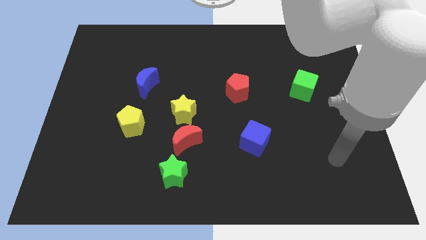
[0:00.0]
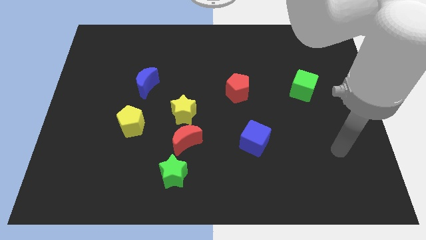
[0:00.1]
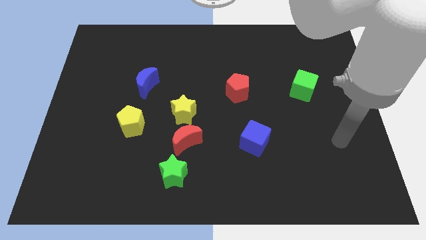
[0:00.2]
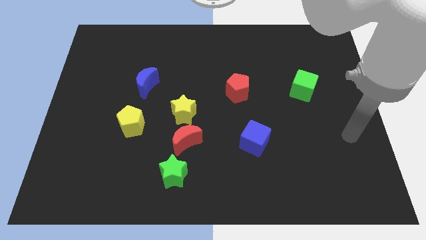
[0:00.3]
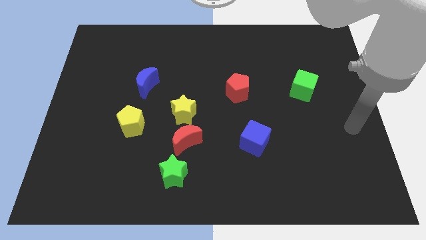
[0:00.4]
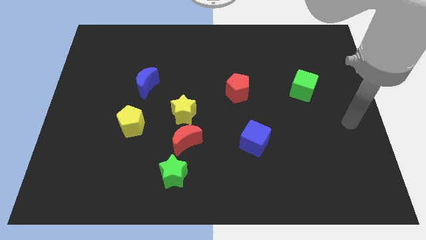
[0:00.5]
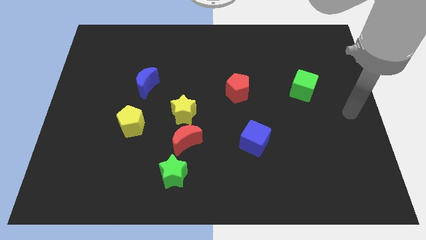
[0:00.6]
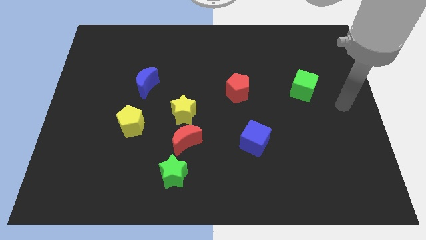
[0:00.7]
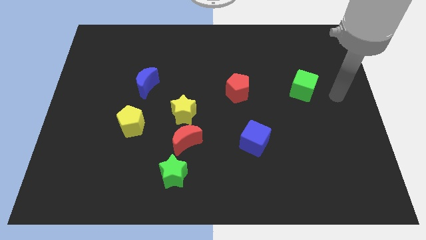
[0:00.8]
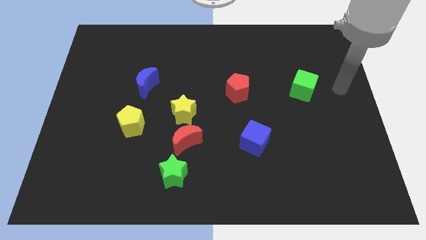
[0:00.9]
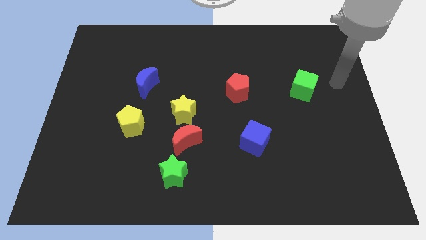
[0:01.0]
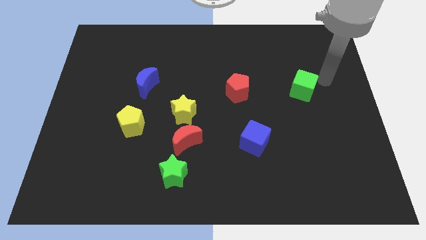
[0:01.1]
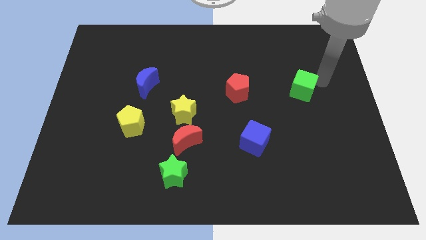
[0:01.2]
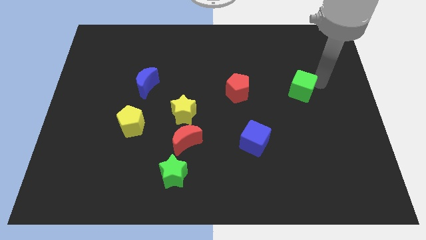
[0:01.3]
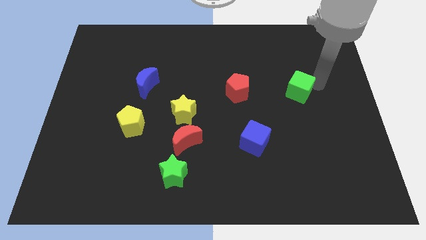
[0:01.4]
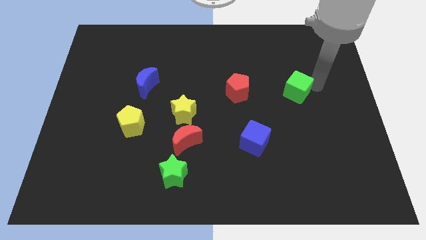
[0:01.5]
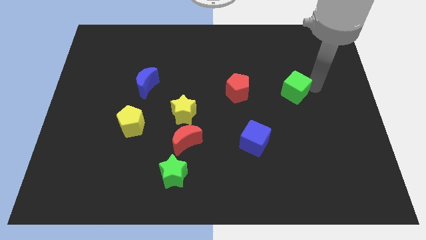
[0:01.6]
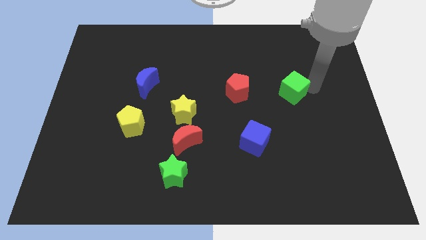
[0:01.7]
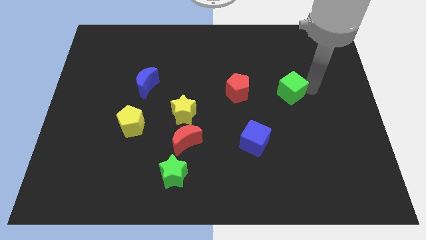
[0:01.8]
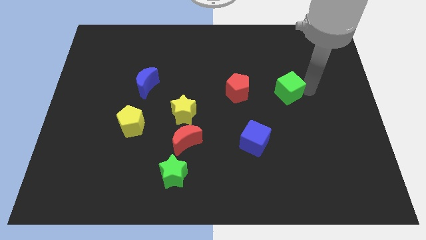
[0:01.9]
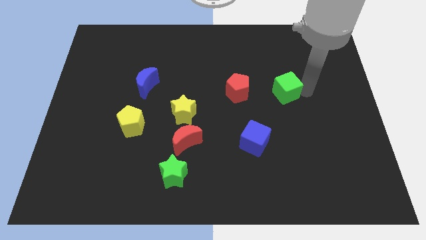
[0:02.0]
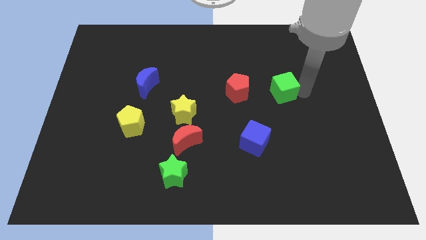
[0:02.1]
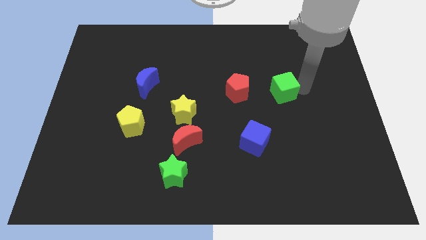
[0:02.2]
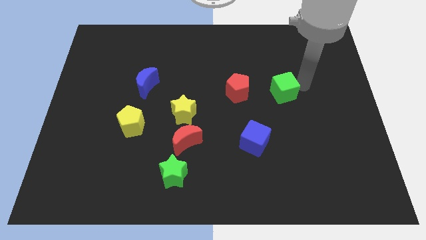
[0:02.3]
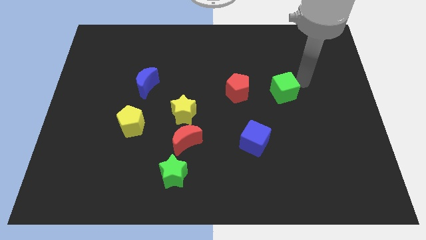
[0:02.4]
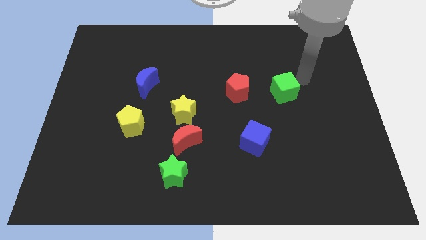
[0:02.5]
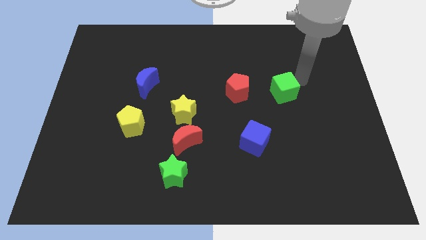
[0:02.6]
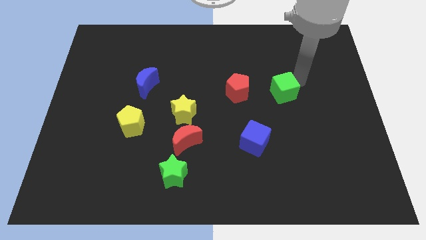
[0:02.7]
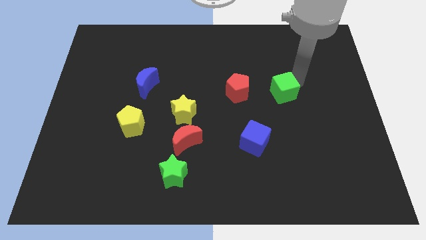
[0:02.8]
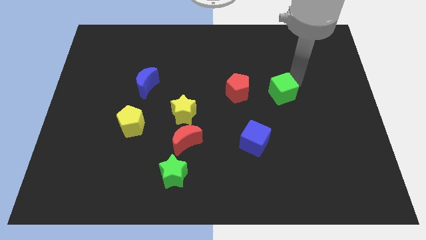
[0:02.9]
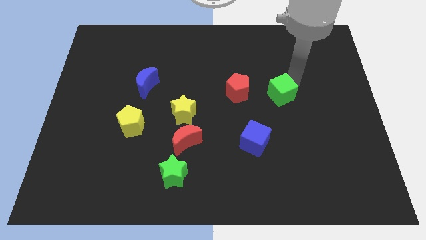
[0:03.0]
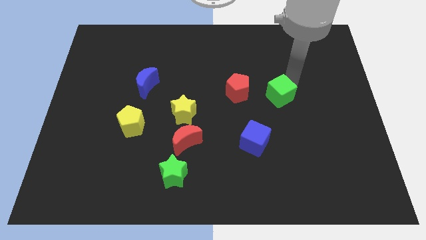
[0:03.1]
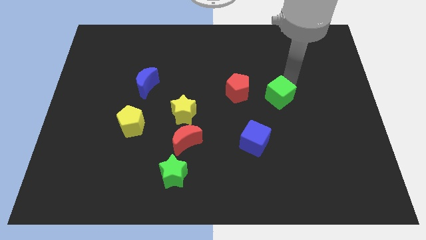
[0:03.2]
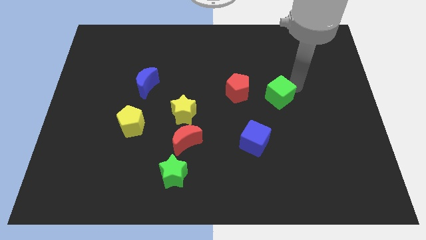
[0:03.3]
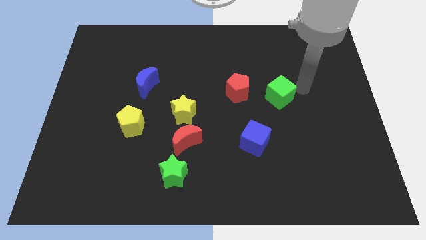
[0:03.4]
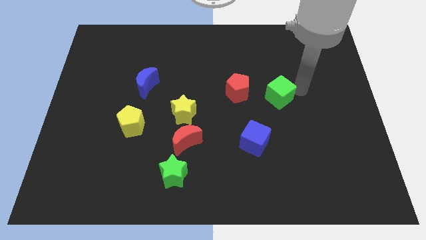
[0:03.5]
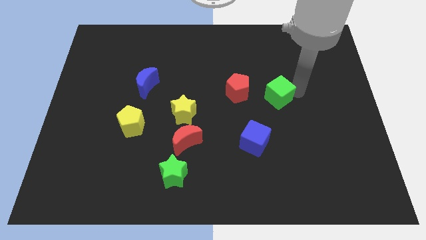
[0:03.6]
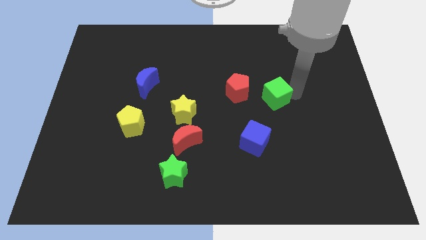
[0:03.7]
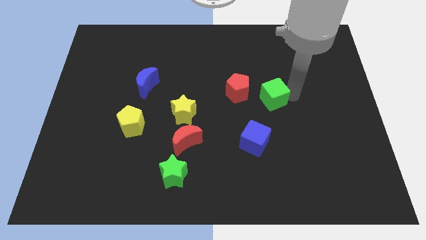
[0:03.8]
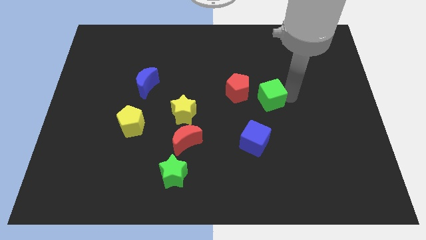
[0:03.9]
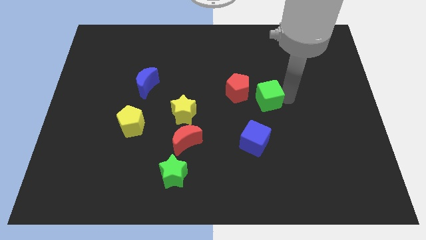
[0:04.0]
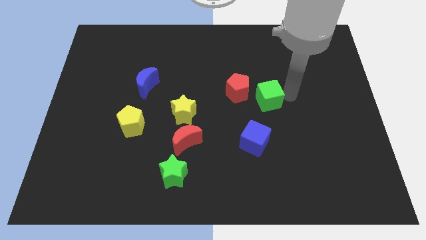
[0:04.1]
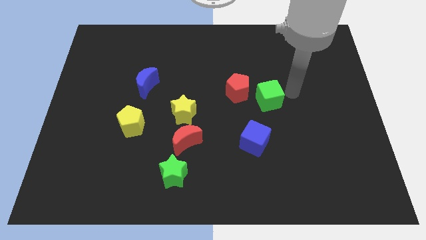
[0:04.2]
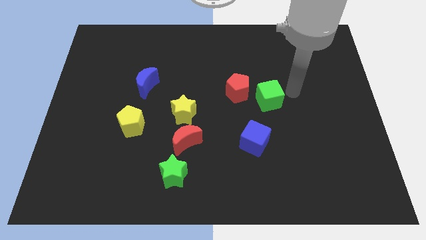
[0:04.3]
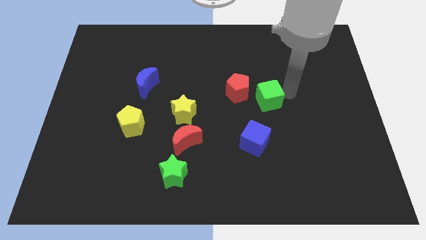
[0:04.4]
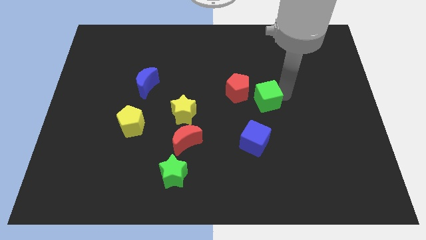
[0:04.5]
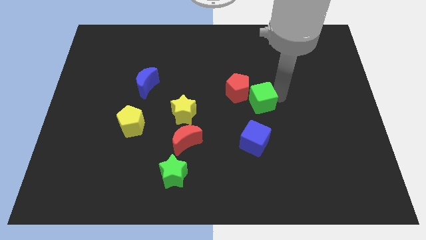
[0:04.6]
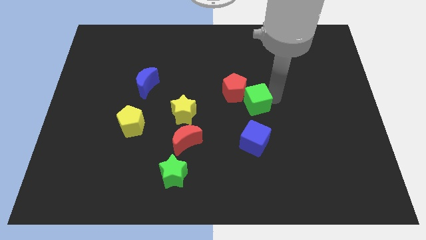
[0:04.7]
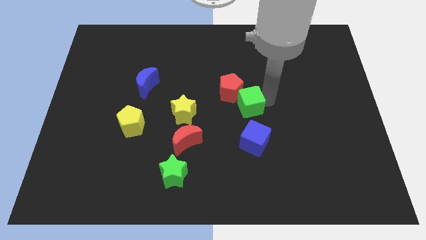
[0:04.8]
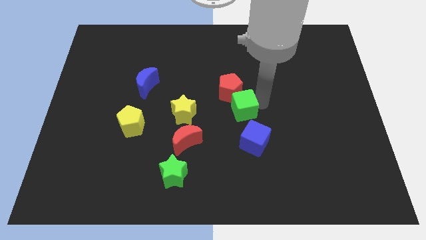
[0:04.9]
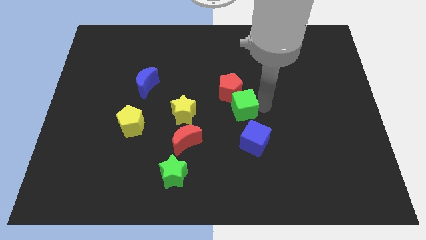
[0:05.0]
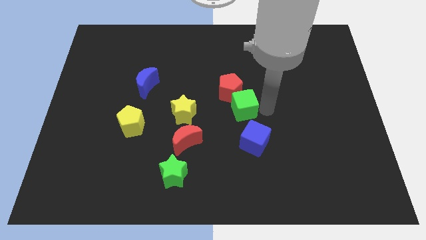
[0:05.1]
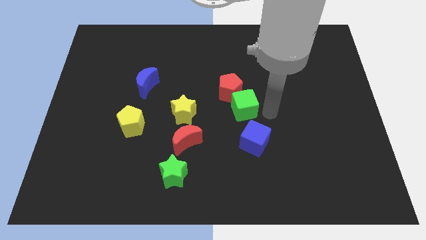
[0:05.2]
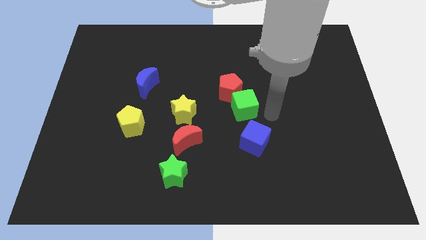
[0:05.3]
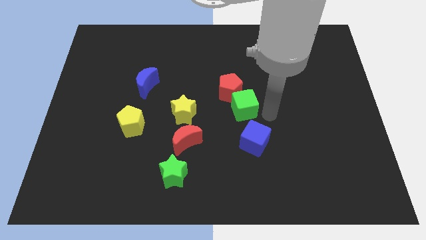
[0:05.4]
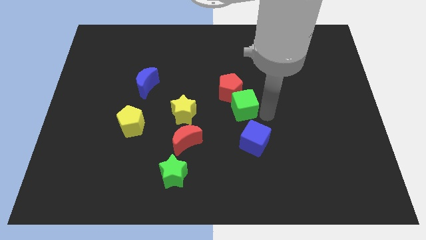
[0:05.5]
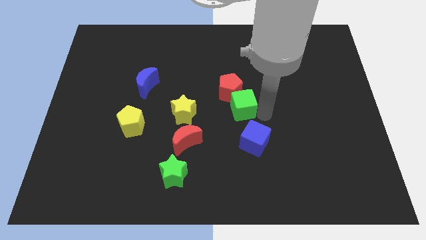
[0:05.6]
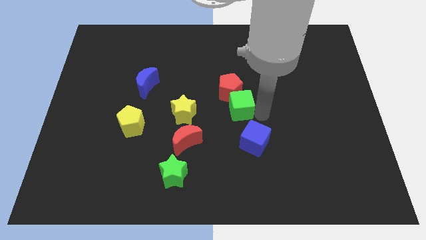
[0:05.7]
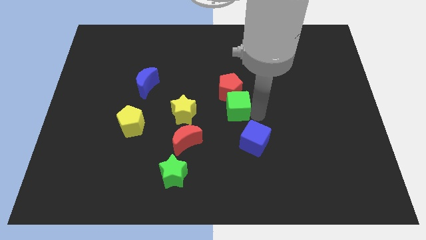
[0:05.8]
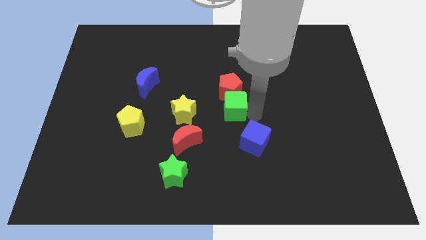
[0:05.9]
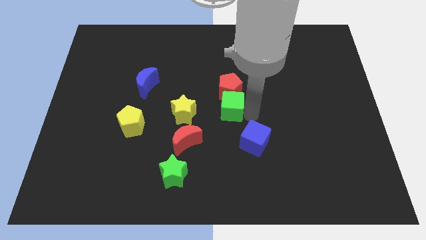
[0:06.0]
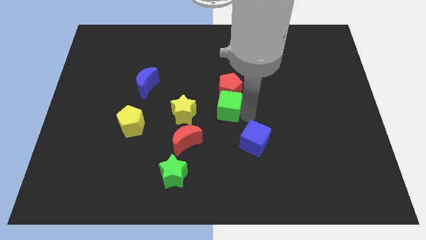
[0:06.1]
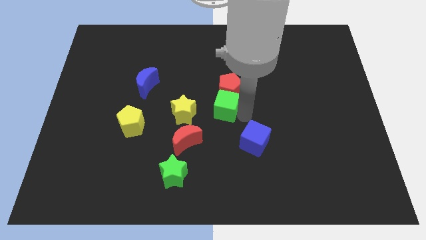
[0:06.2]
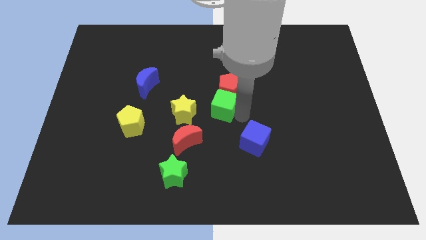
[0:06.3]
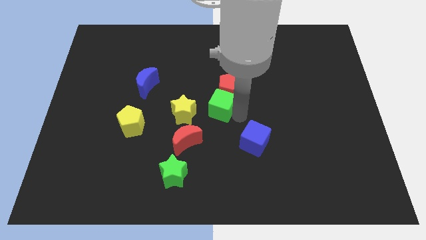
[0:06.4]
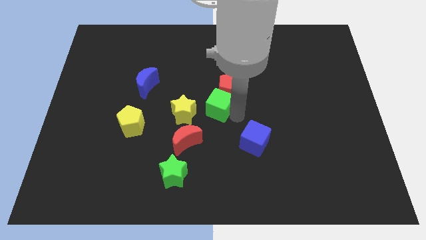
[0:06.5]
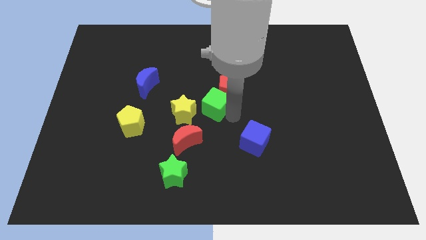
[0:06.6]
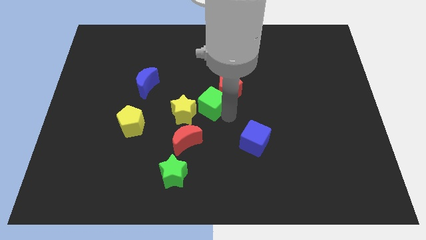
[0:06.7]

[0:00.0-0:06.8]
slide the green cube to the left of the red pentagon
